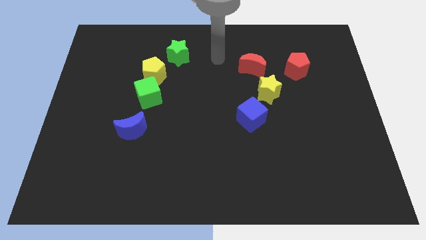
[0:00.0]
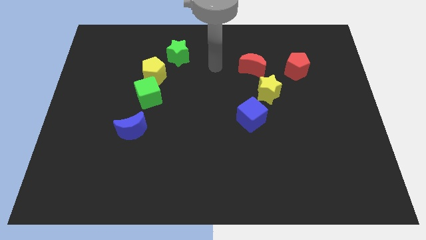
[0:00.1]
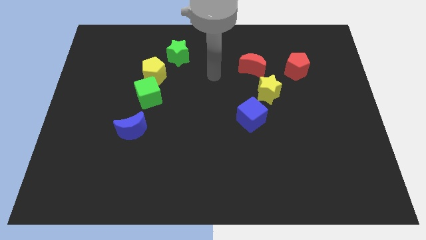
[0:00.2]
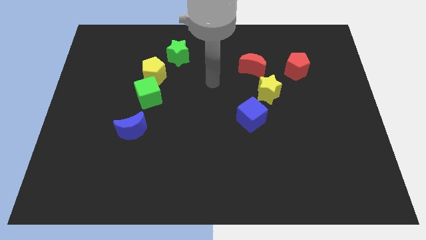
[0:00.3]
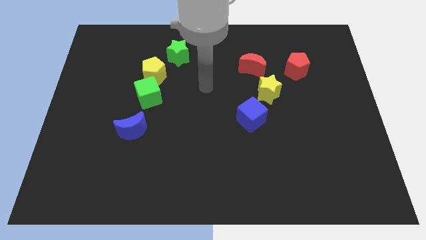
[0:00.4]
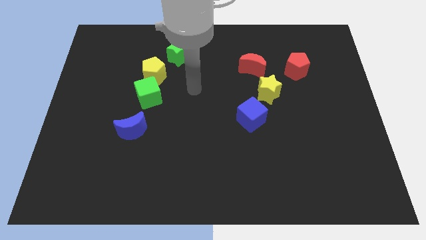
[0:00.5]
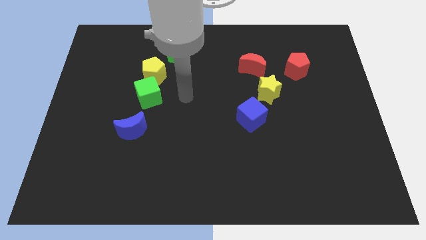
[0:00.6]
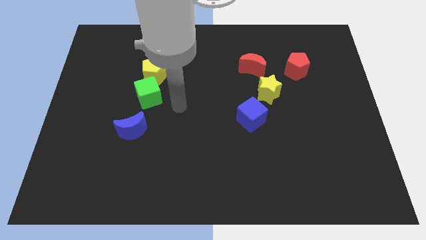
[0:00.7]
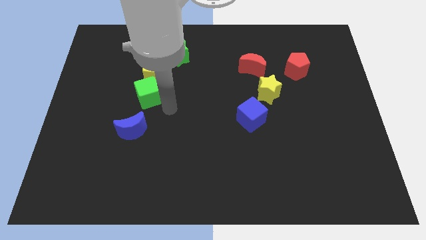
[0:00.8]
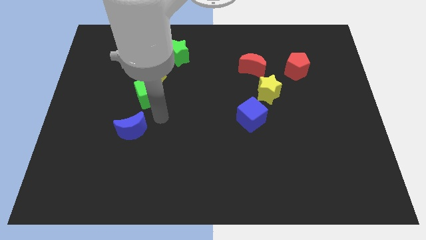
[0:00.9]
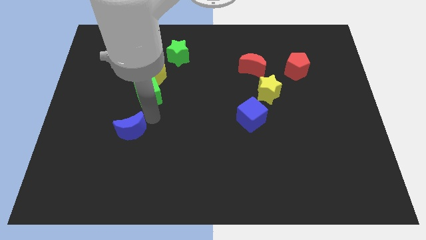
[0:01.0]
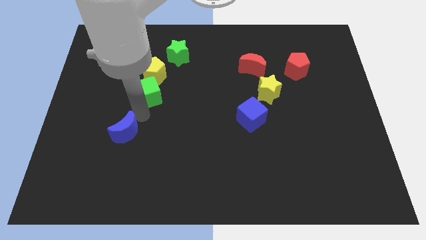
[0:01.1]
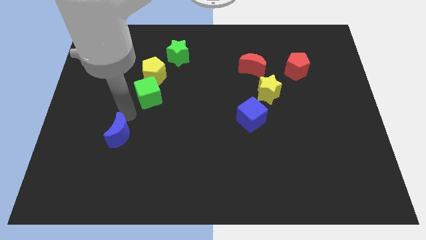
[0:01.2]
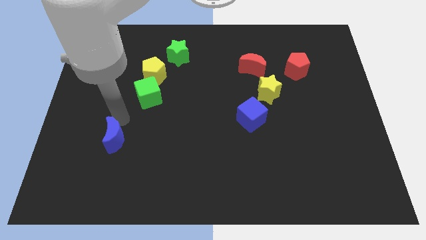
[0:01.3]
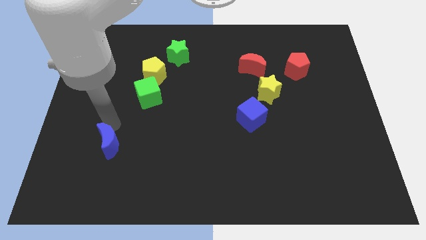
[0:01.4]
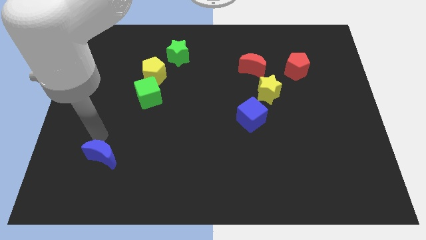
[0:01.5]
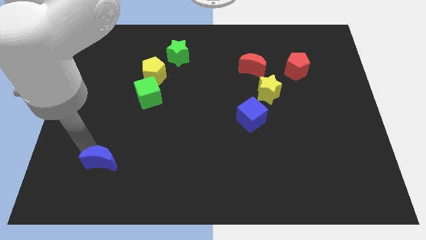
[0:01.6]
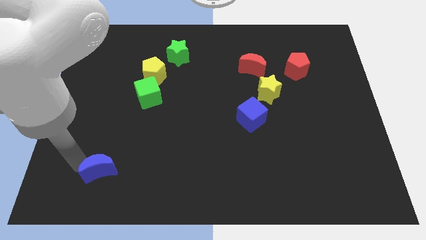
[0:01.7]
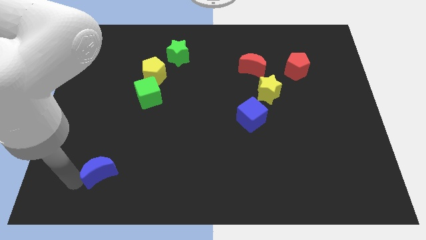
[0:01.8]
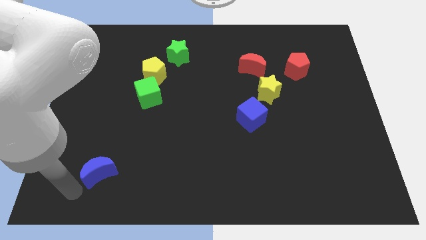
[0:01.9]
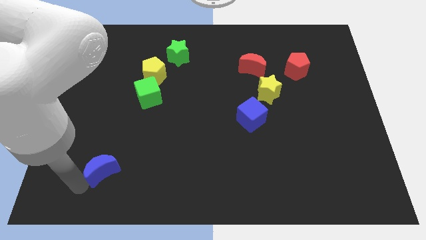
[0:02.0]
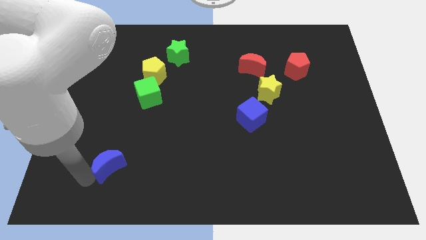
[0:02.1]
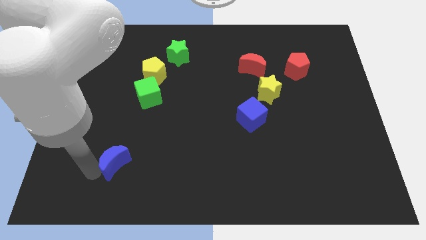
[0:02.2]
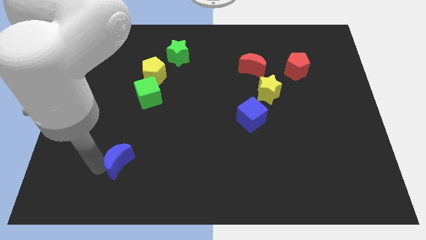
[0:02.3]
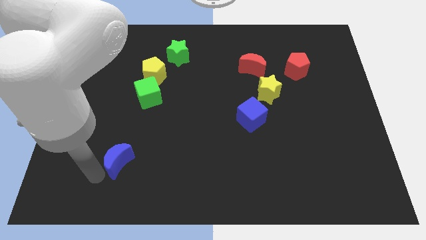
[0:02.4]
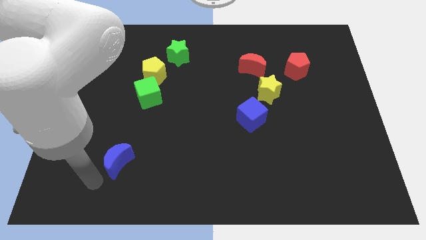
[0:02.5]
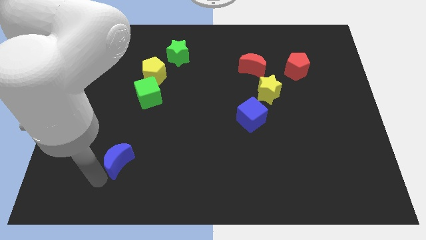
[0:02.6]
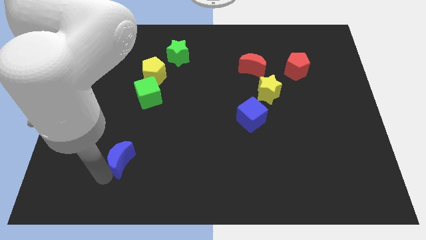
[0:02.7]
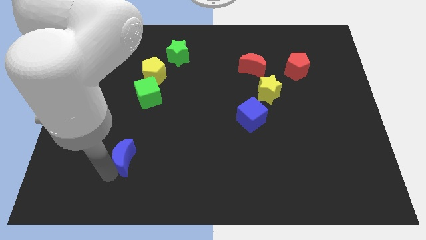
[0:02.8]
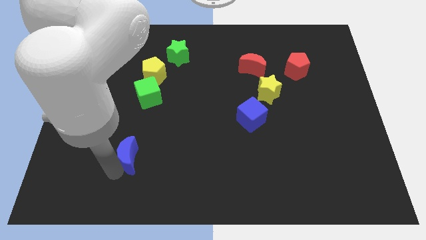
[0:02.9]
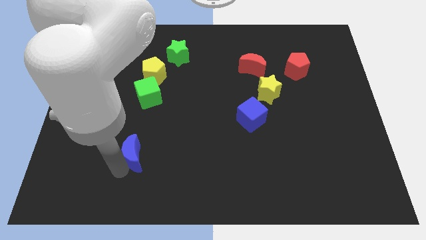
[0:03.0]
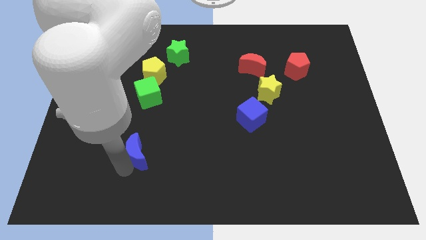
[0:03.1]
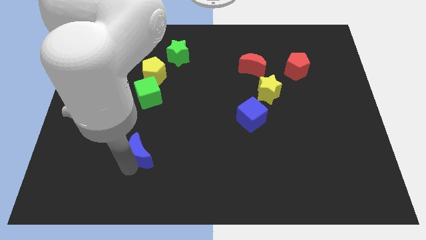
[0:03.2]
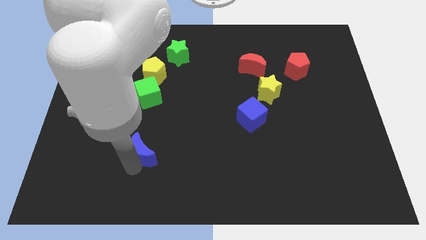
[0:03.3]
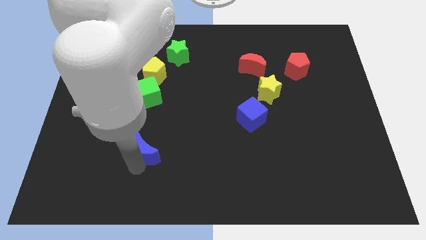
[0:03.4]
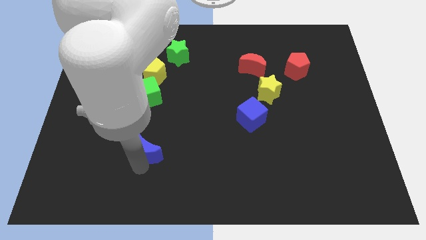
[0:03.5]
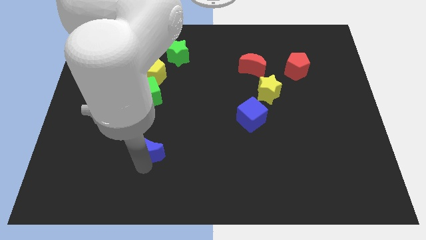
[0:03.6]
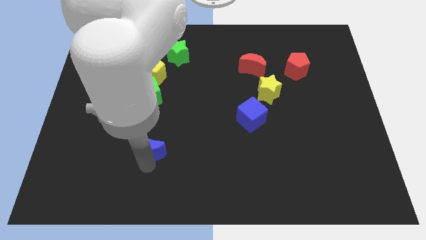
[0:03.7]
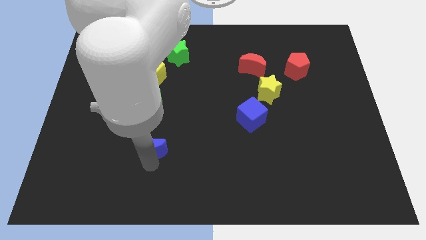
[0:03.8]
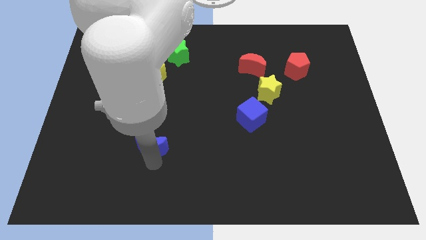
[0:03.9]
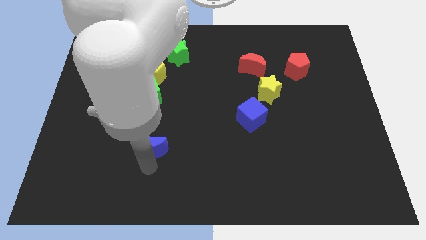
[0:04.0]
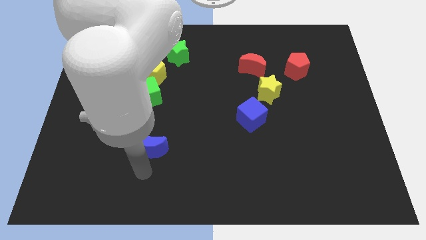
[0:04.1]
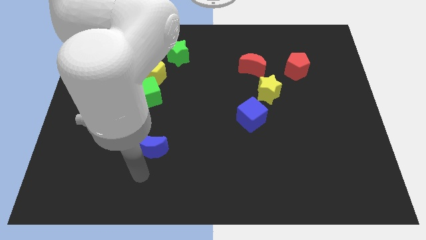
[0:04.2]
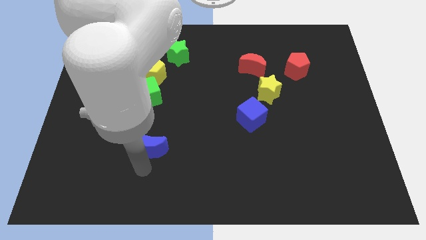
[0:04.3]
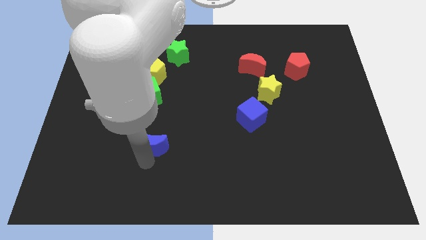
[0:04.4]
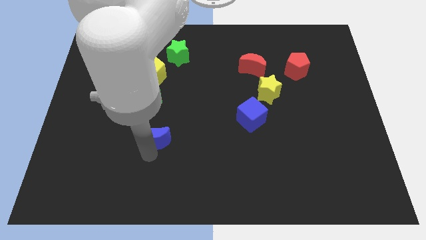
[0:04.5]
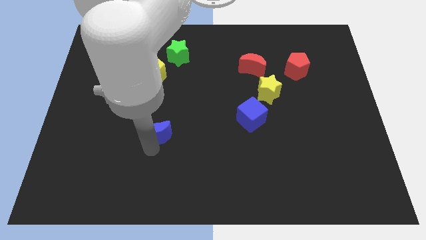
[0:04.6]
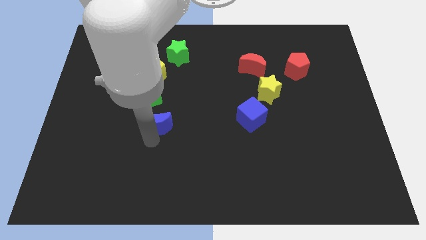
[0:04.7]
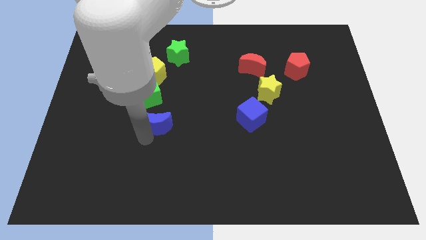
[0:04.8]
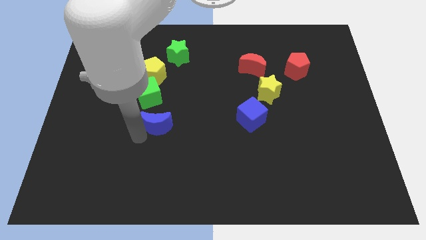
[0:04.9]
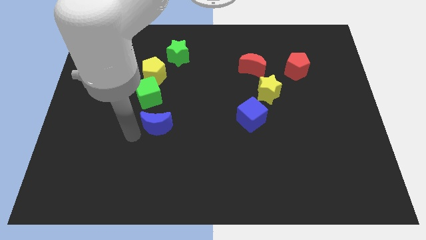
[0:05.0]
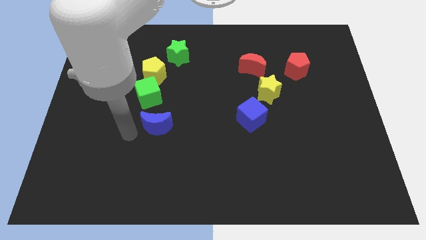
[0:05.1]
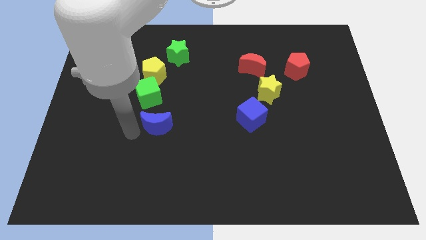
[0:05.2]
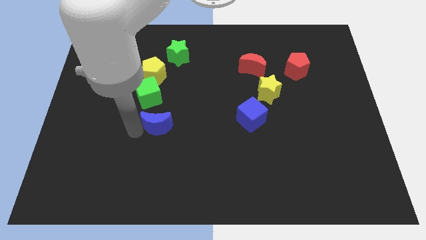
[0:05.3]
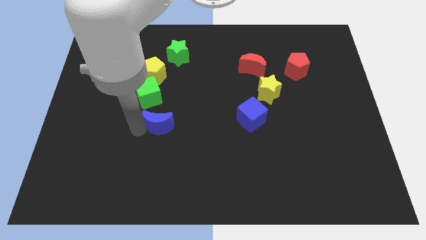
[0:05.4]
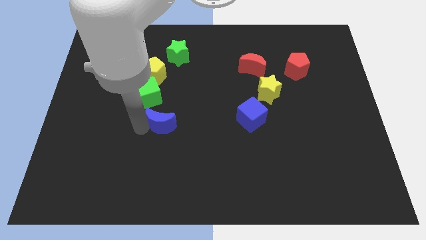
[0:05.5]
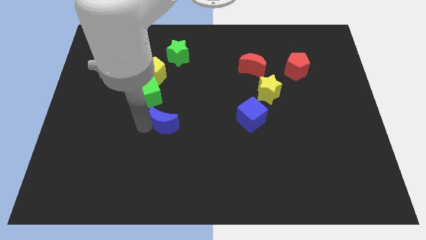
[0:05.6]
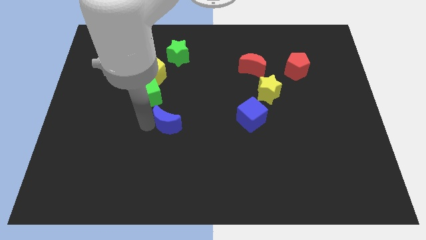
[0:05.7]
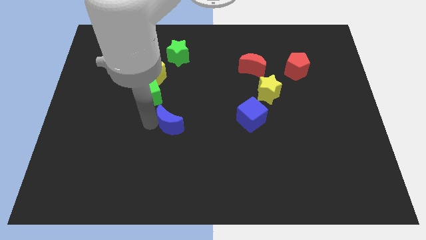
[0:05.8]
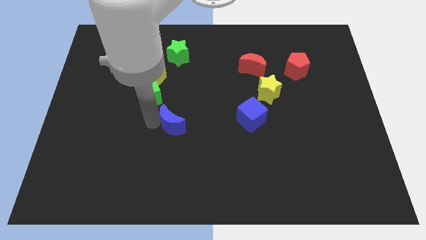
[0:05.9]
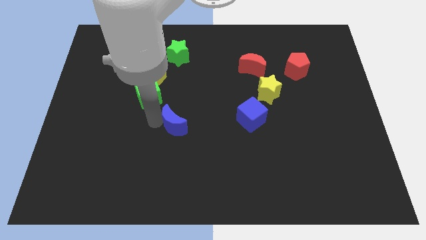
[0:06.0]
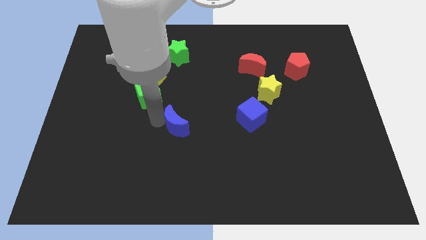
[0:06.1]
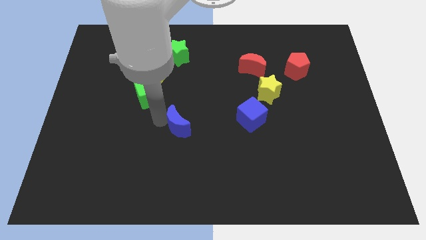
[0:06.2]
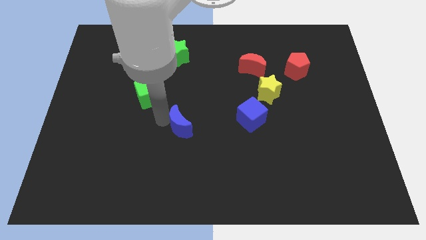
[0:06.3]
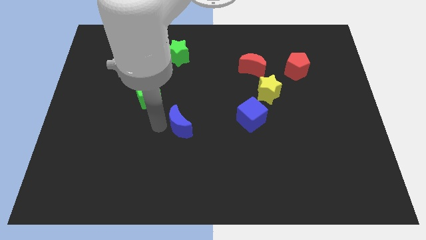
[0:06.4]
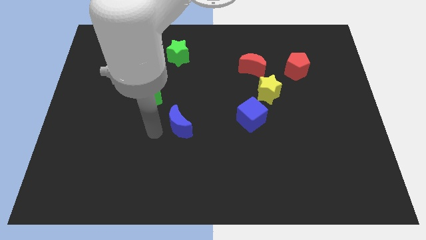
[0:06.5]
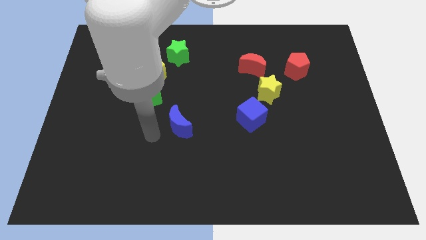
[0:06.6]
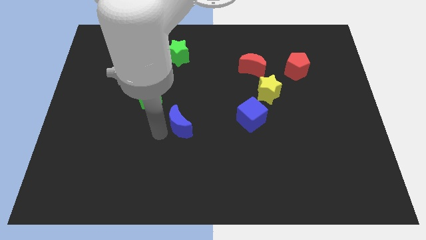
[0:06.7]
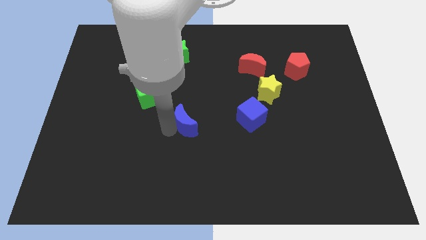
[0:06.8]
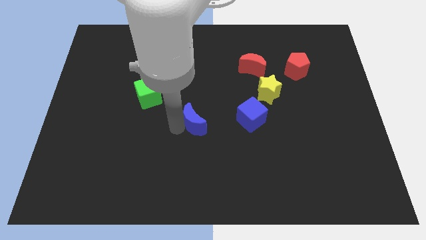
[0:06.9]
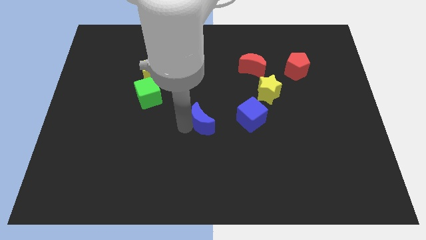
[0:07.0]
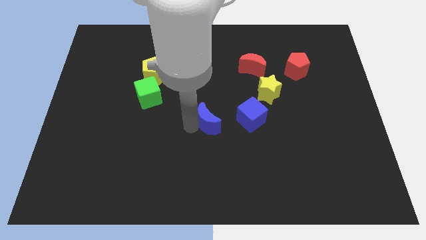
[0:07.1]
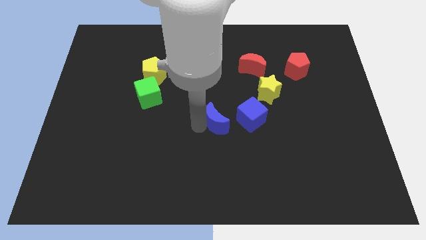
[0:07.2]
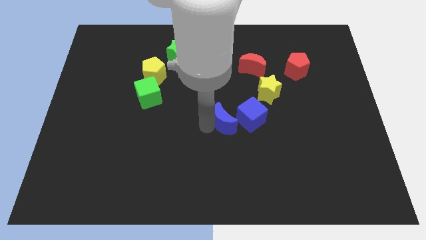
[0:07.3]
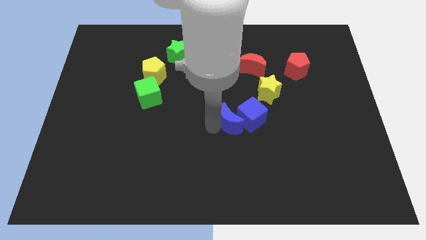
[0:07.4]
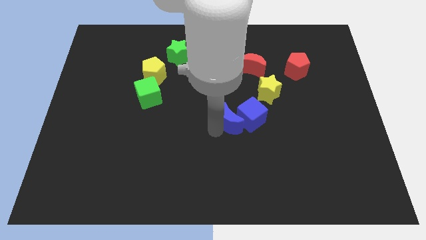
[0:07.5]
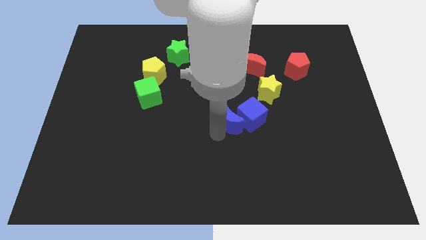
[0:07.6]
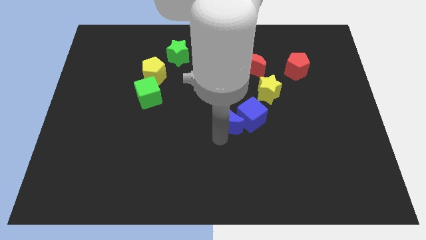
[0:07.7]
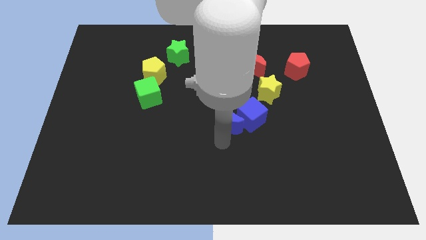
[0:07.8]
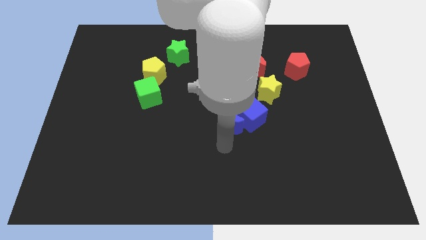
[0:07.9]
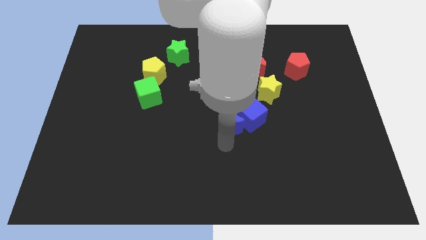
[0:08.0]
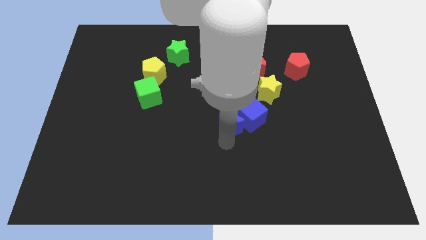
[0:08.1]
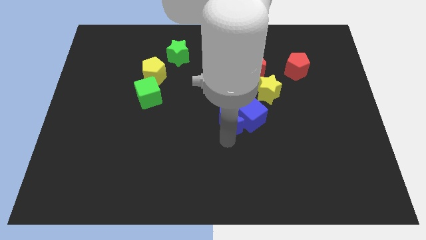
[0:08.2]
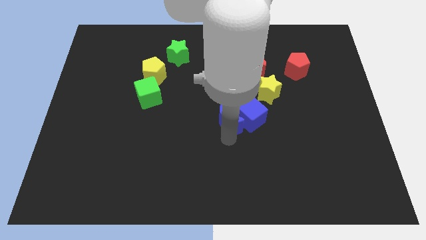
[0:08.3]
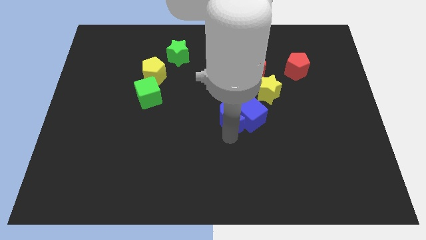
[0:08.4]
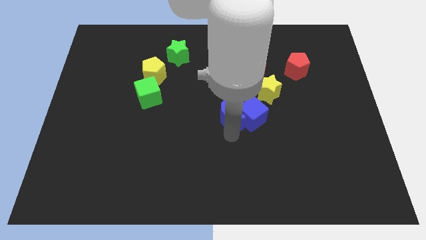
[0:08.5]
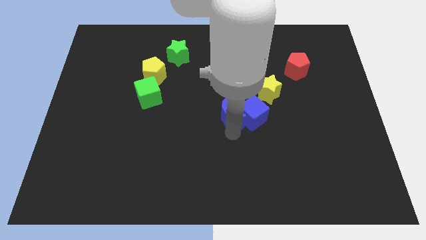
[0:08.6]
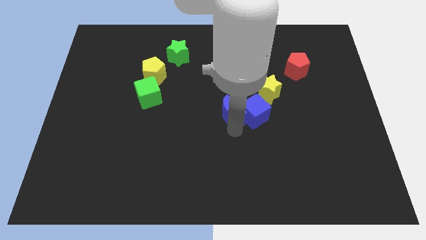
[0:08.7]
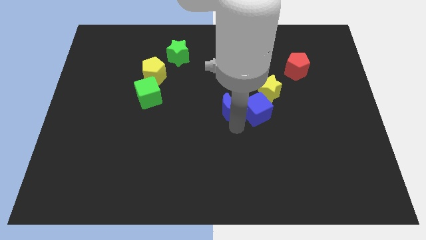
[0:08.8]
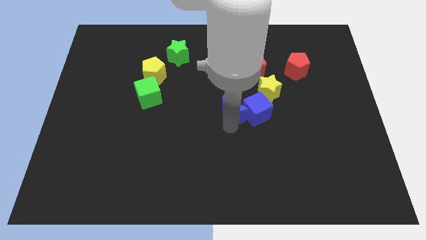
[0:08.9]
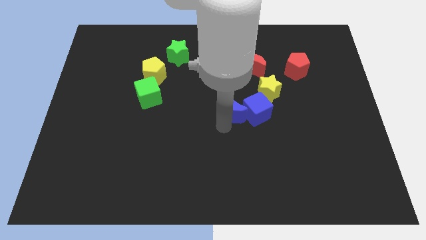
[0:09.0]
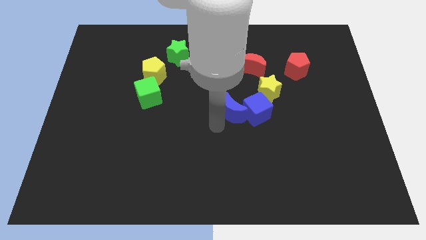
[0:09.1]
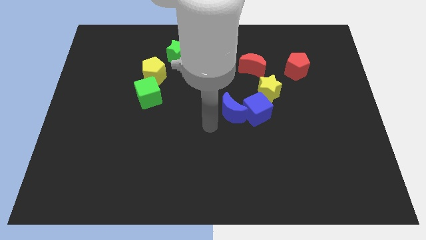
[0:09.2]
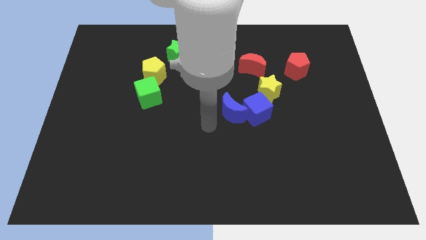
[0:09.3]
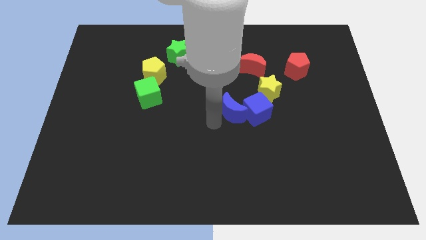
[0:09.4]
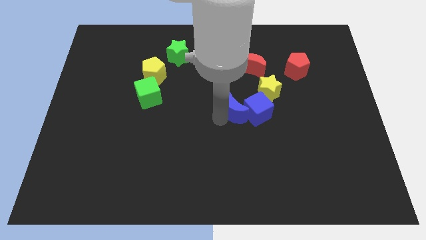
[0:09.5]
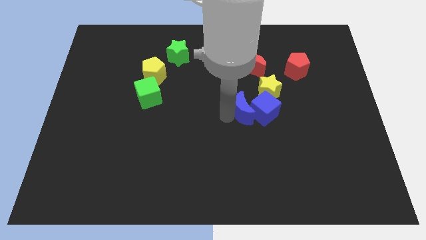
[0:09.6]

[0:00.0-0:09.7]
push the blue moon below the red moon
